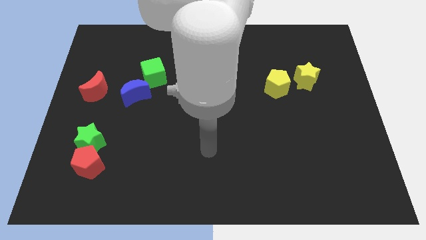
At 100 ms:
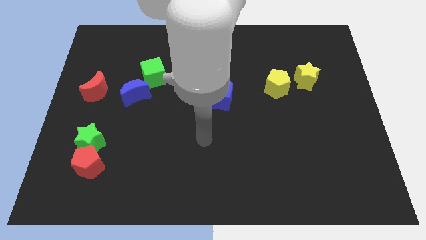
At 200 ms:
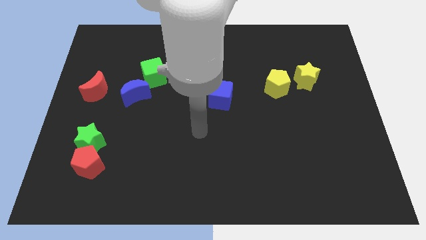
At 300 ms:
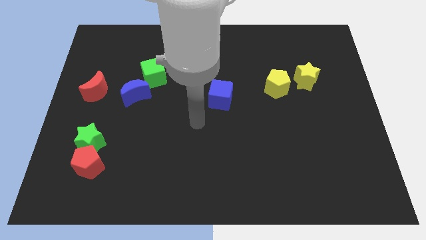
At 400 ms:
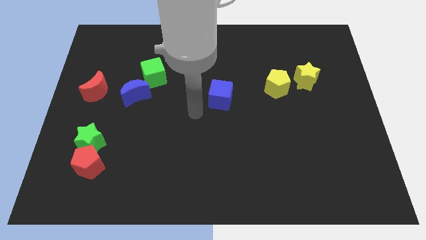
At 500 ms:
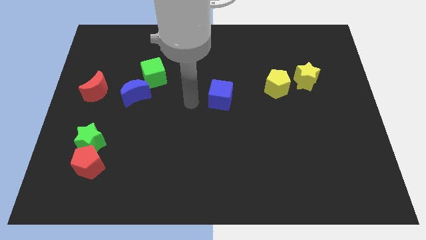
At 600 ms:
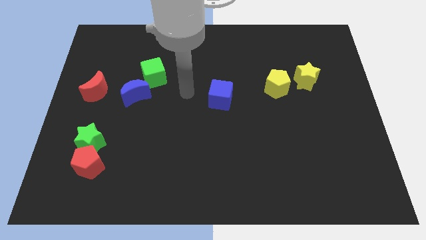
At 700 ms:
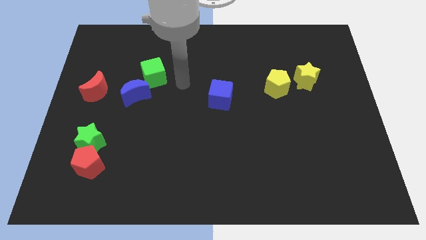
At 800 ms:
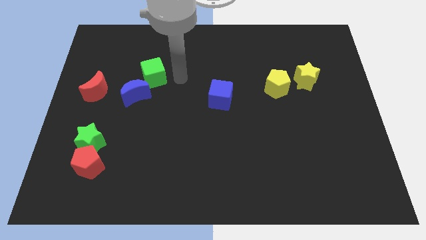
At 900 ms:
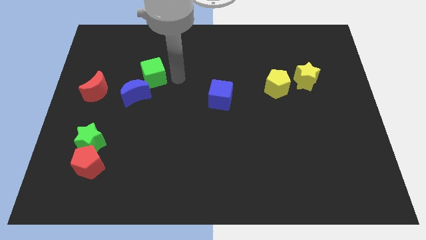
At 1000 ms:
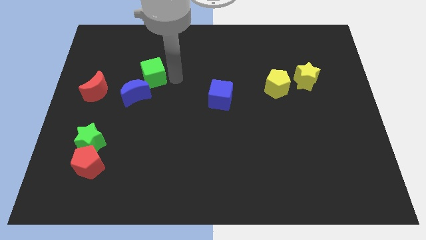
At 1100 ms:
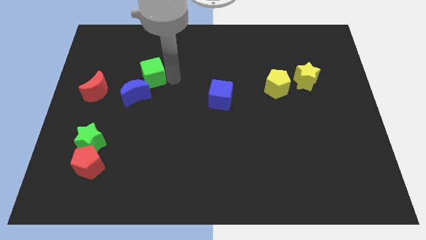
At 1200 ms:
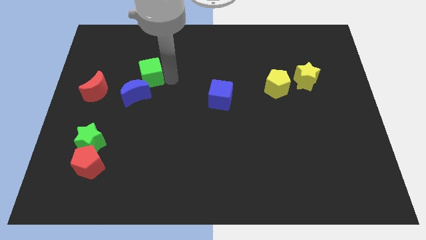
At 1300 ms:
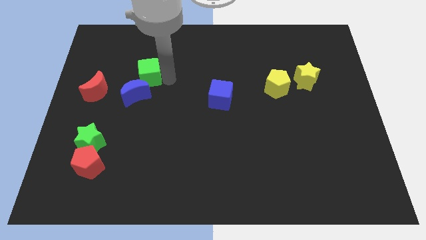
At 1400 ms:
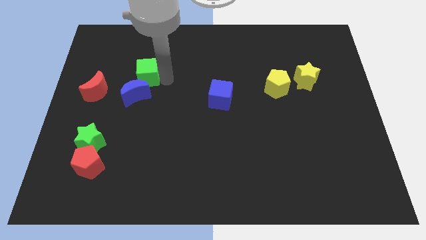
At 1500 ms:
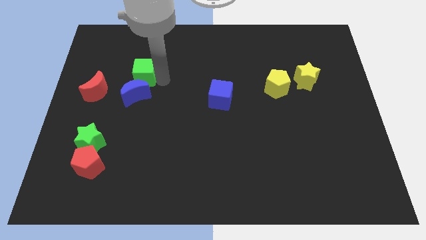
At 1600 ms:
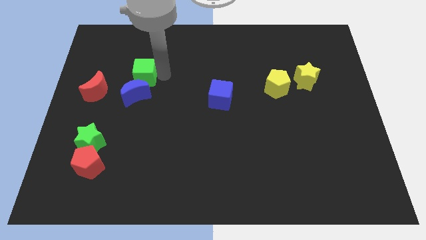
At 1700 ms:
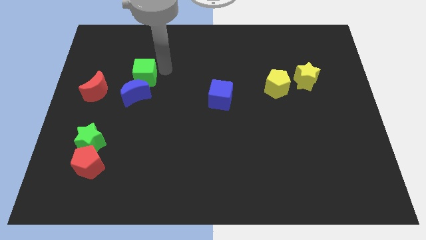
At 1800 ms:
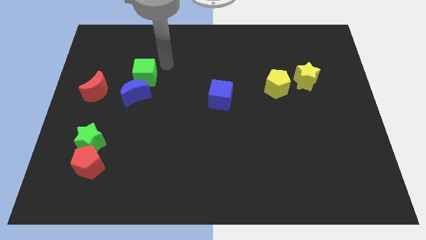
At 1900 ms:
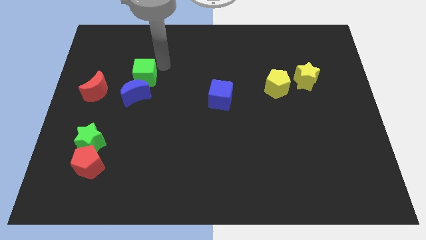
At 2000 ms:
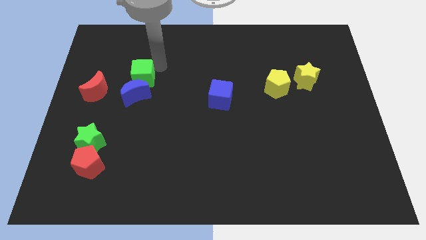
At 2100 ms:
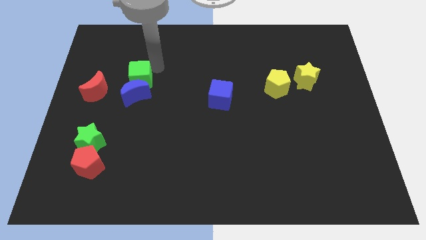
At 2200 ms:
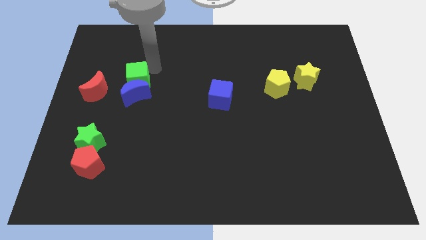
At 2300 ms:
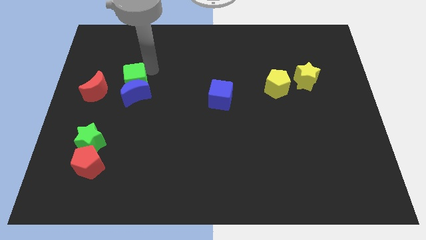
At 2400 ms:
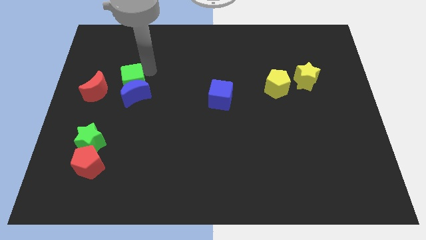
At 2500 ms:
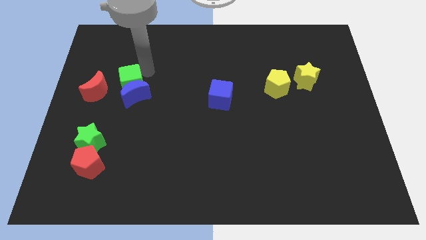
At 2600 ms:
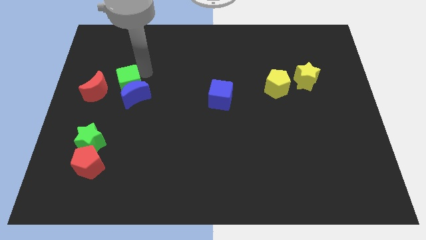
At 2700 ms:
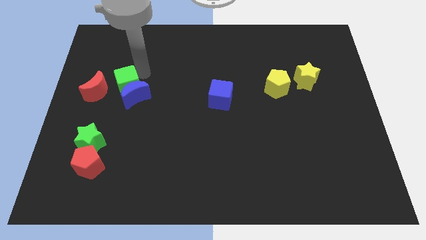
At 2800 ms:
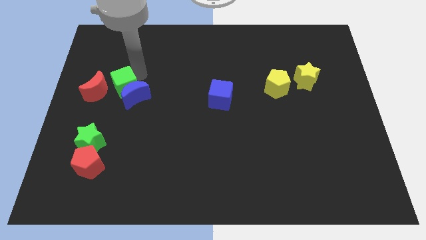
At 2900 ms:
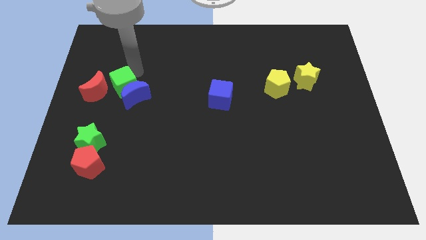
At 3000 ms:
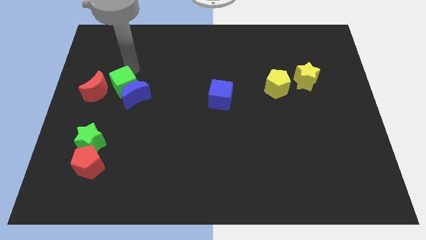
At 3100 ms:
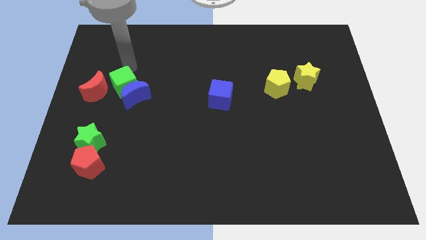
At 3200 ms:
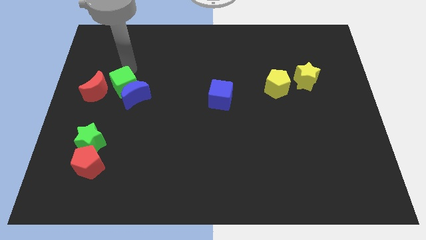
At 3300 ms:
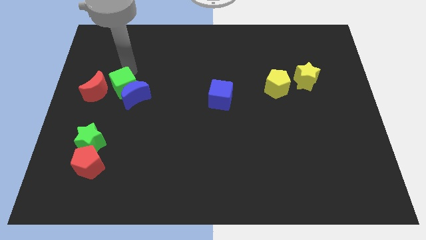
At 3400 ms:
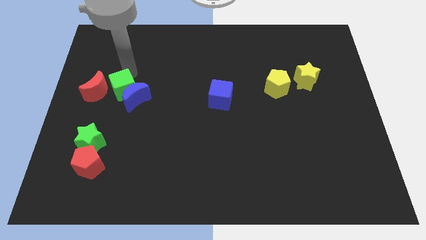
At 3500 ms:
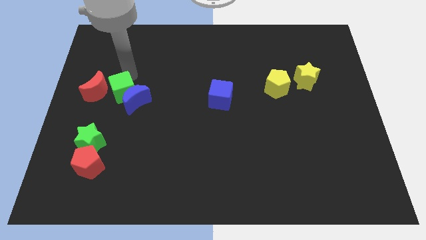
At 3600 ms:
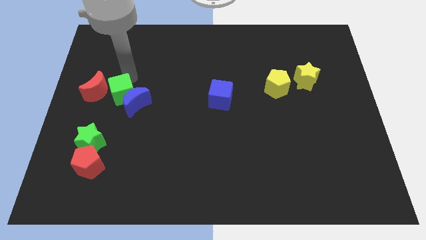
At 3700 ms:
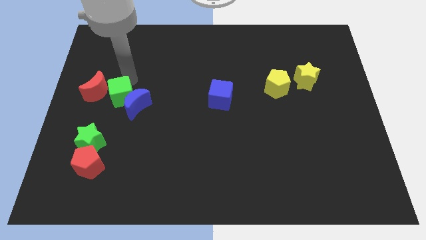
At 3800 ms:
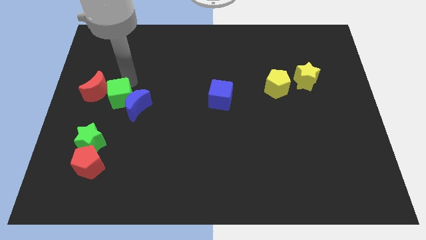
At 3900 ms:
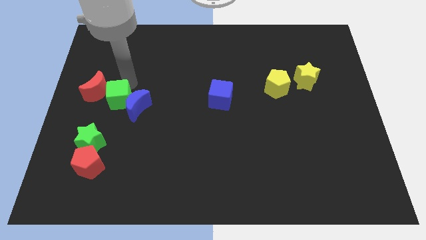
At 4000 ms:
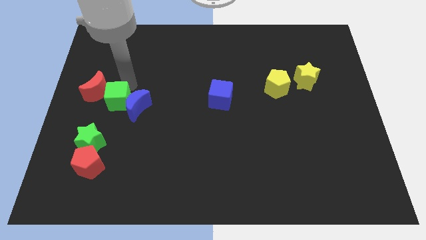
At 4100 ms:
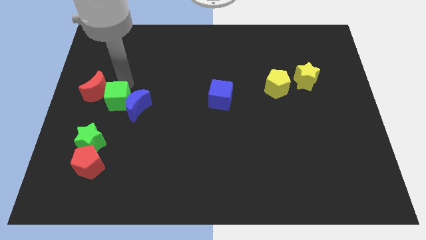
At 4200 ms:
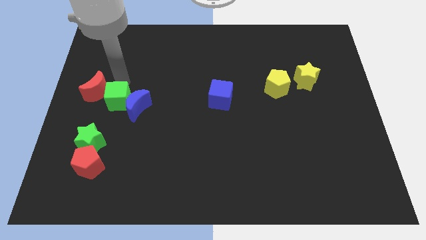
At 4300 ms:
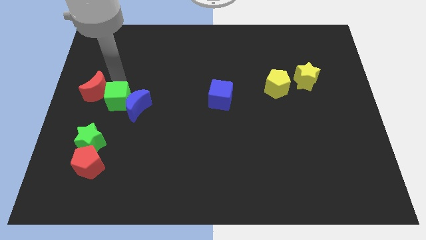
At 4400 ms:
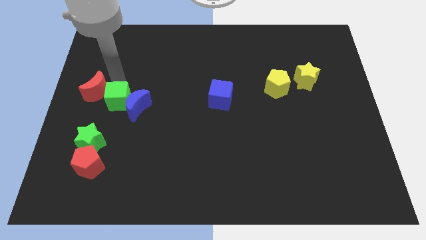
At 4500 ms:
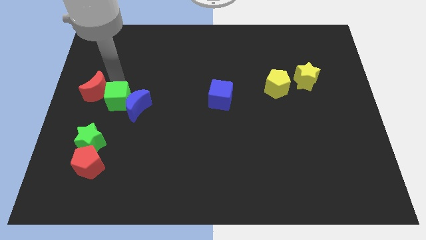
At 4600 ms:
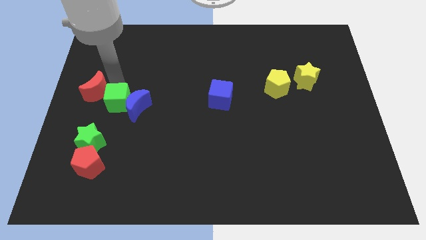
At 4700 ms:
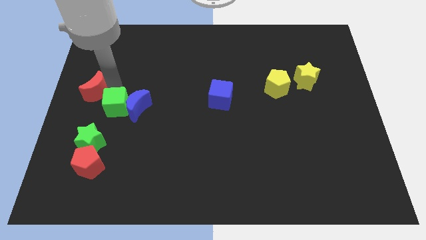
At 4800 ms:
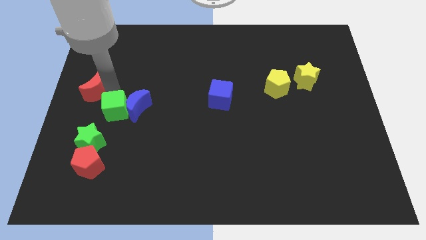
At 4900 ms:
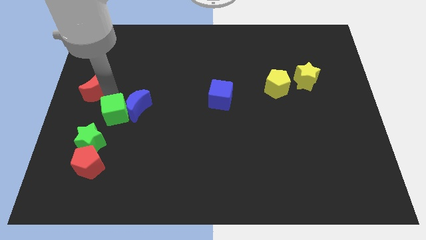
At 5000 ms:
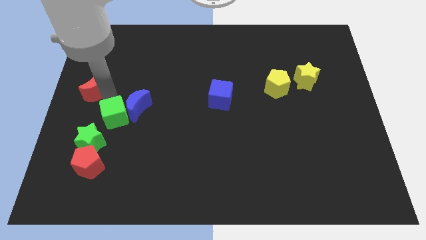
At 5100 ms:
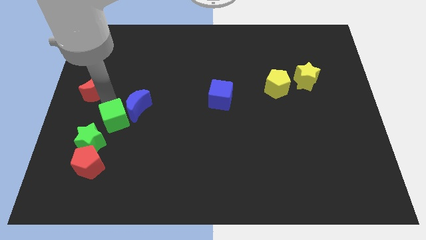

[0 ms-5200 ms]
move the green cube below the blue moon

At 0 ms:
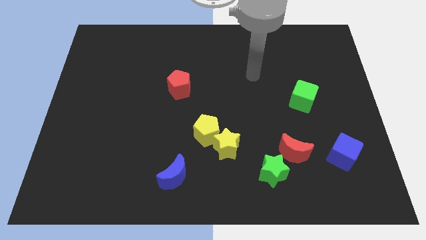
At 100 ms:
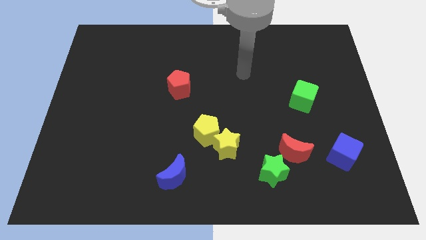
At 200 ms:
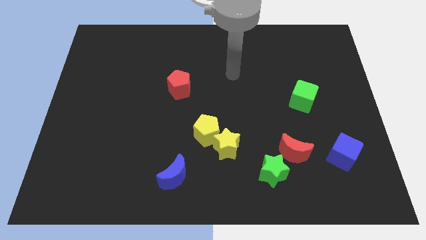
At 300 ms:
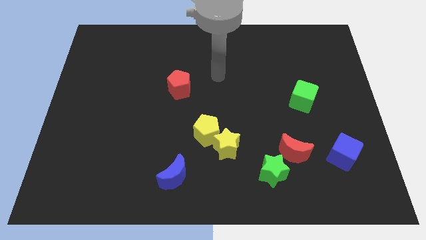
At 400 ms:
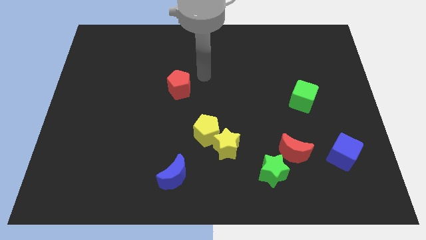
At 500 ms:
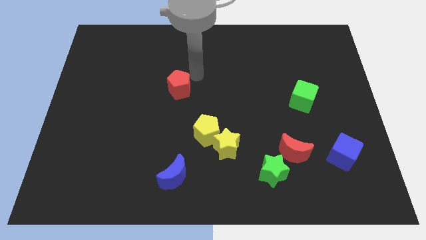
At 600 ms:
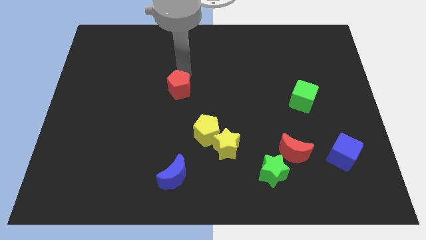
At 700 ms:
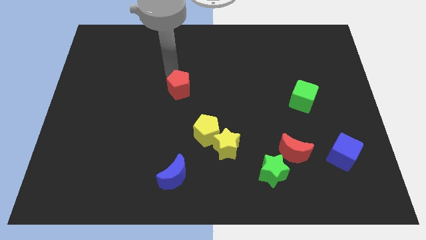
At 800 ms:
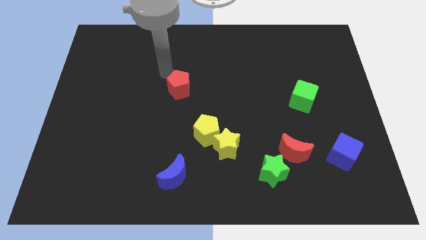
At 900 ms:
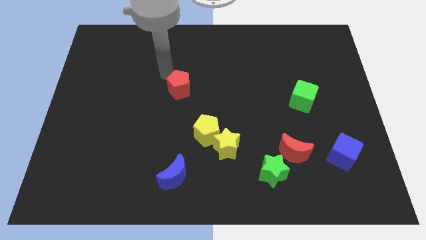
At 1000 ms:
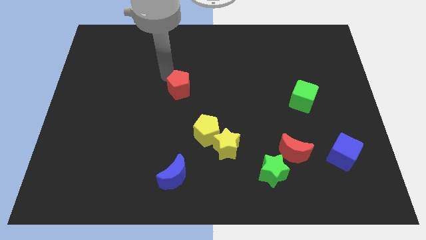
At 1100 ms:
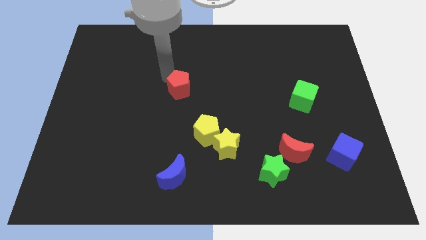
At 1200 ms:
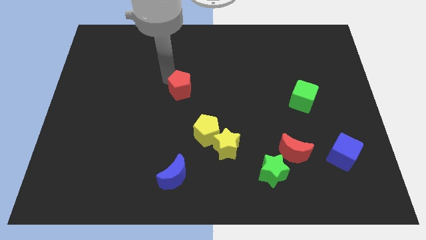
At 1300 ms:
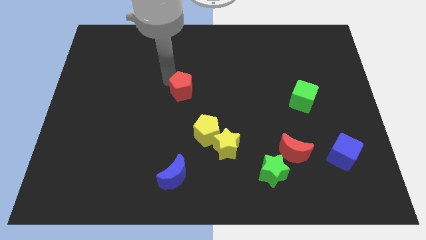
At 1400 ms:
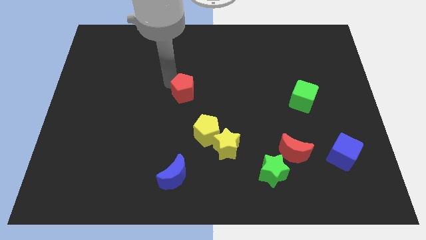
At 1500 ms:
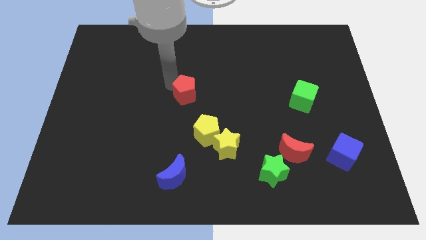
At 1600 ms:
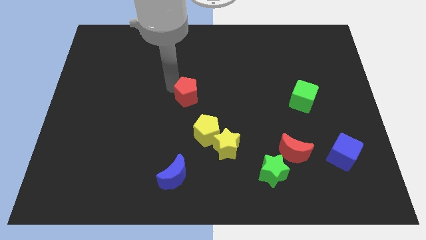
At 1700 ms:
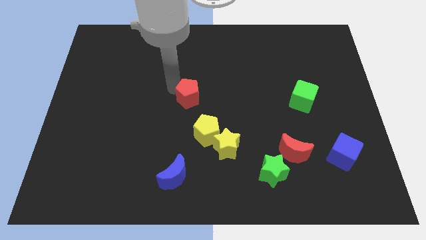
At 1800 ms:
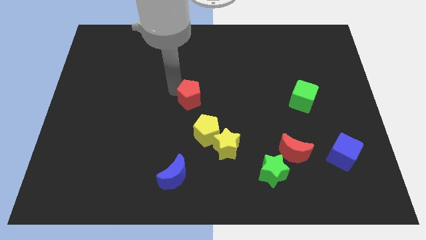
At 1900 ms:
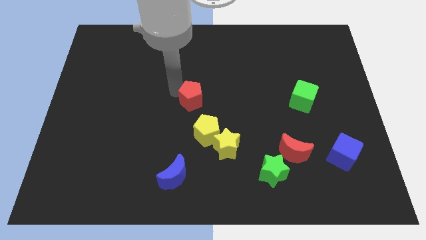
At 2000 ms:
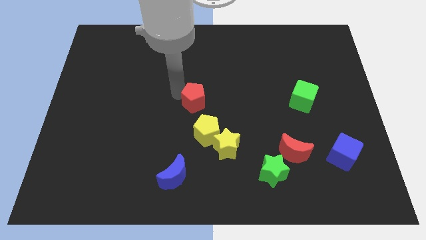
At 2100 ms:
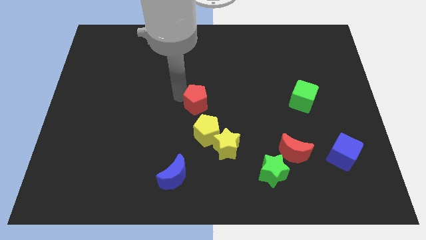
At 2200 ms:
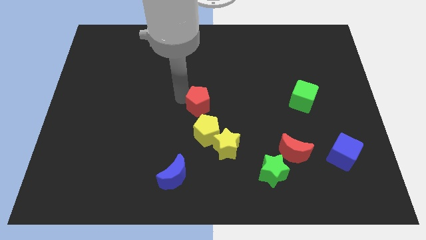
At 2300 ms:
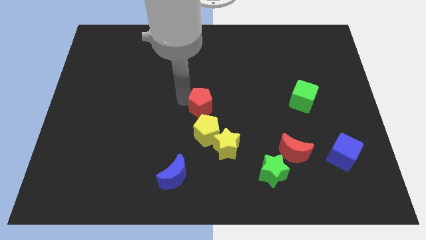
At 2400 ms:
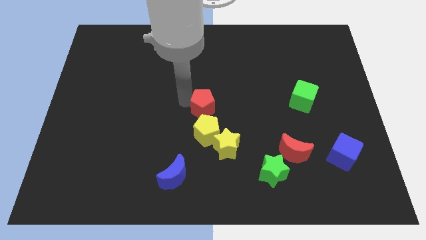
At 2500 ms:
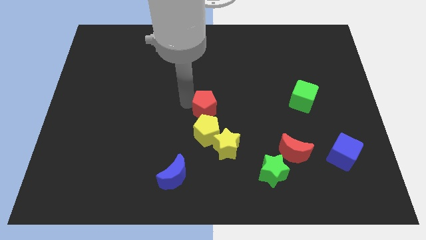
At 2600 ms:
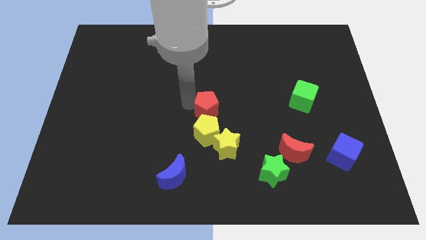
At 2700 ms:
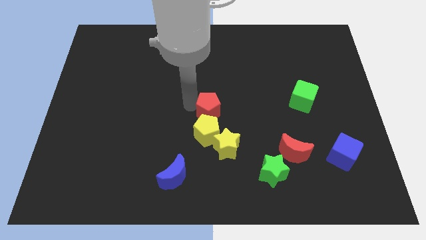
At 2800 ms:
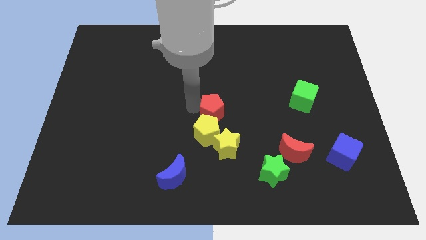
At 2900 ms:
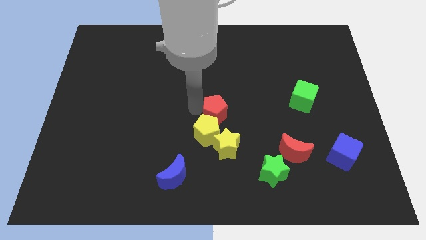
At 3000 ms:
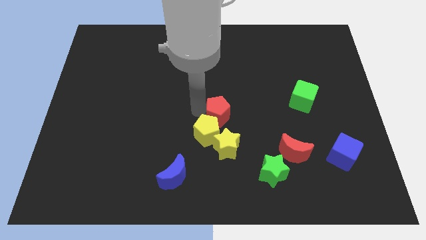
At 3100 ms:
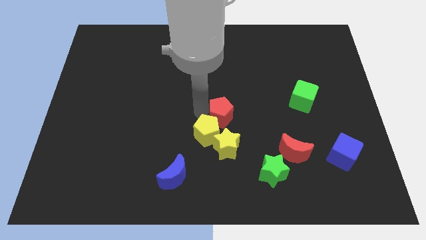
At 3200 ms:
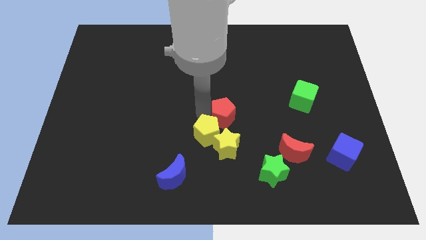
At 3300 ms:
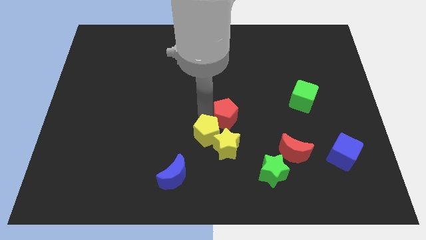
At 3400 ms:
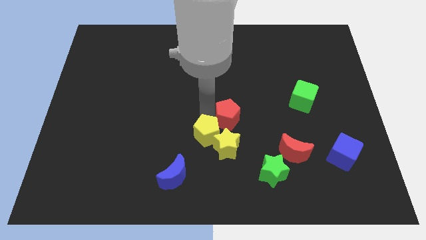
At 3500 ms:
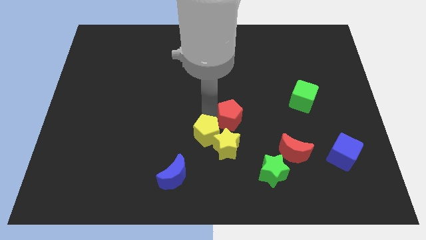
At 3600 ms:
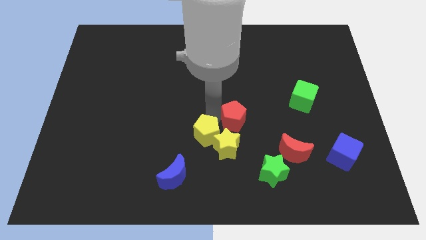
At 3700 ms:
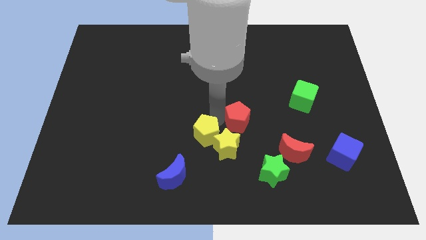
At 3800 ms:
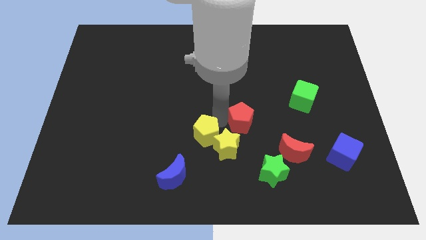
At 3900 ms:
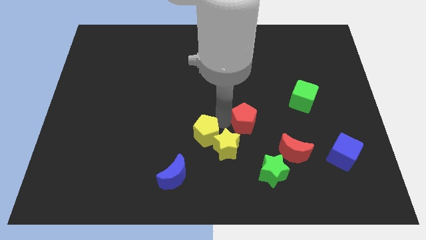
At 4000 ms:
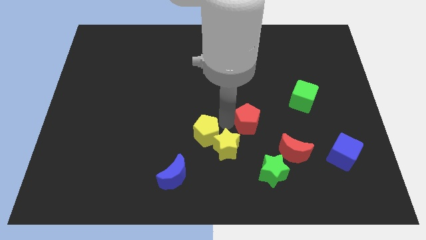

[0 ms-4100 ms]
slide the red pentagon to the top of the green star
